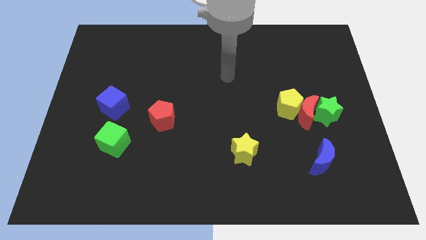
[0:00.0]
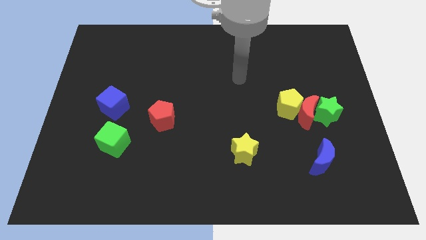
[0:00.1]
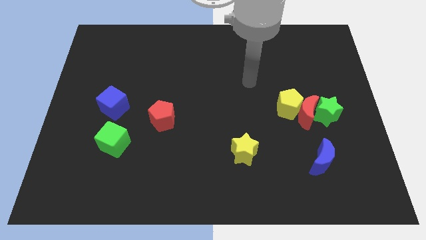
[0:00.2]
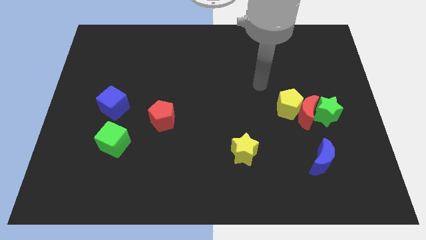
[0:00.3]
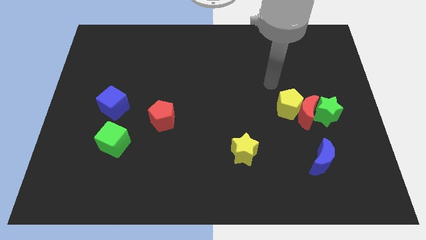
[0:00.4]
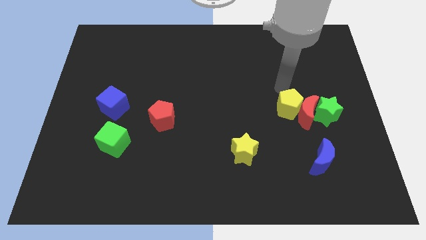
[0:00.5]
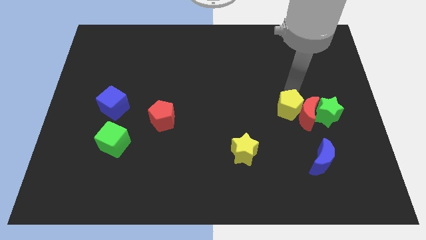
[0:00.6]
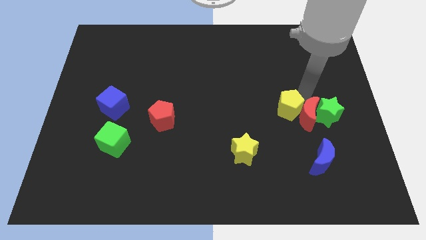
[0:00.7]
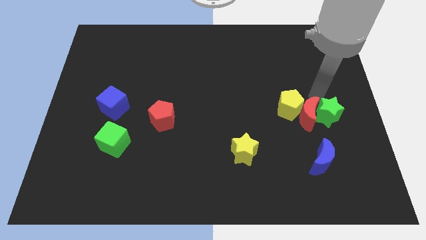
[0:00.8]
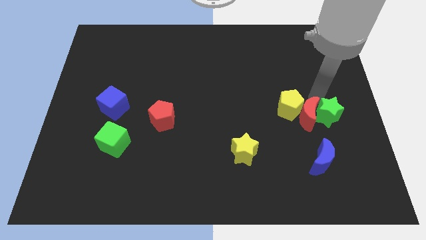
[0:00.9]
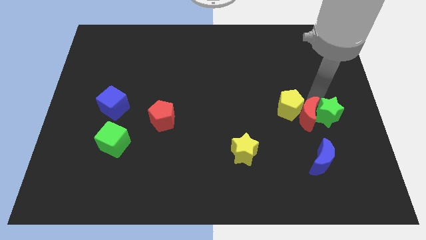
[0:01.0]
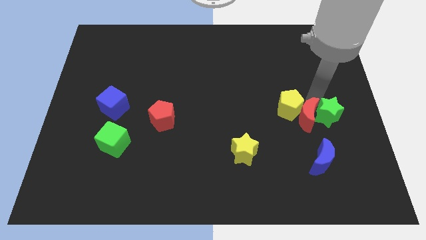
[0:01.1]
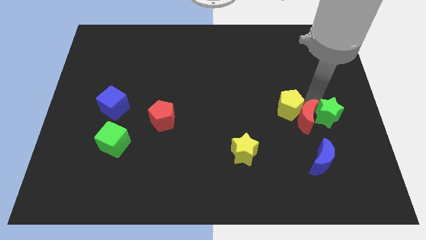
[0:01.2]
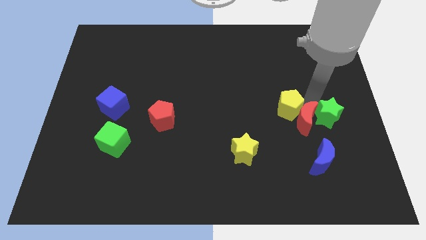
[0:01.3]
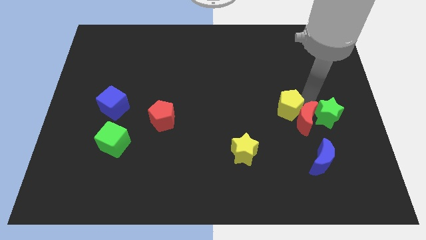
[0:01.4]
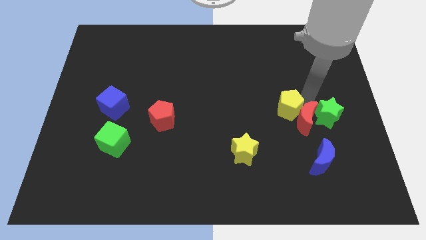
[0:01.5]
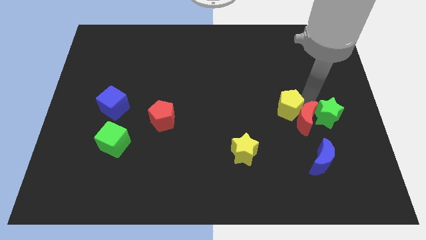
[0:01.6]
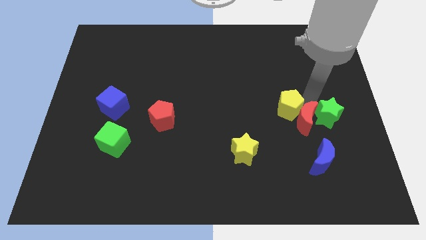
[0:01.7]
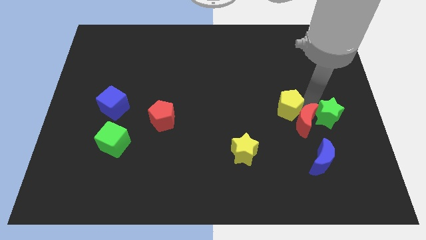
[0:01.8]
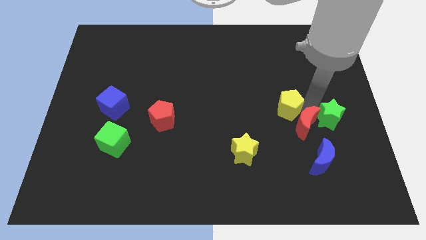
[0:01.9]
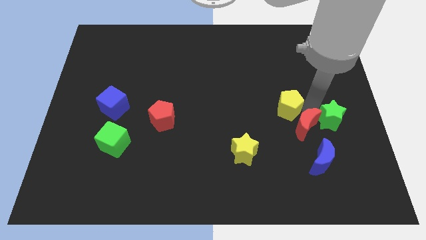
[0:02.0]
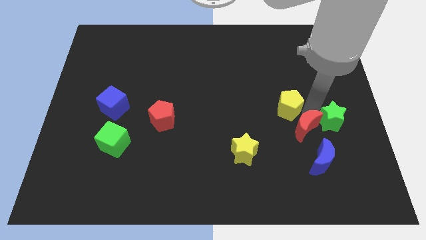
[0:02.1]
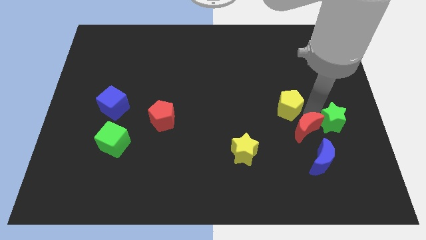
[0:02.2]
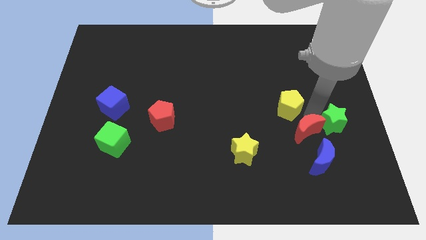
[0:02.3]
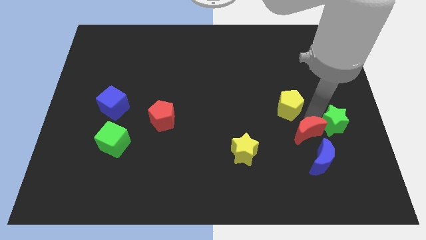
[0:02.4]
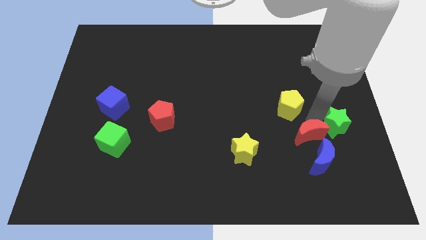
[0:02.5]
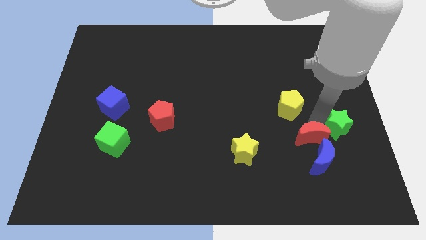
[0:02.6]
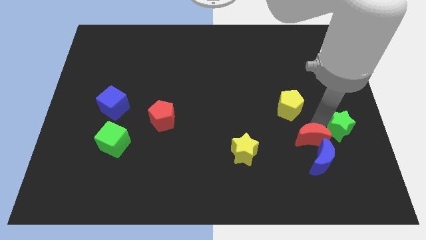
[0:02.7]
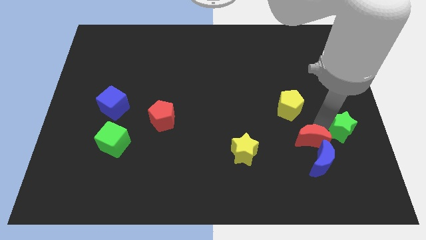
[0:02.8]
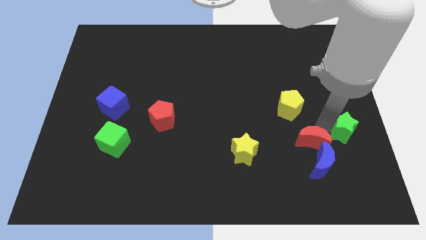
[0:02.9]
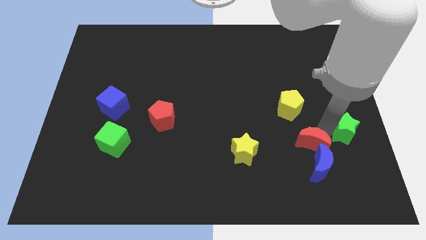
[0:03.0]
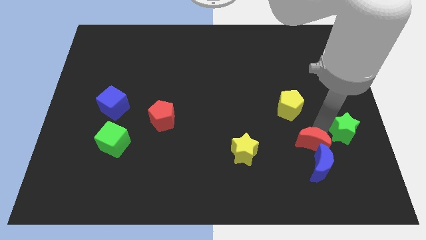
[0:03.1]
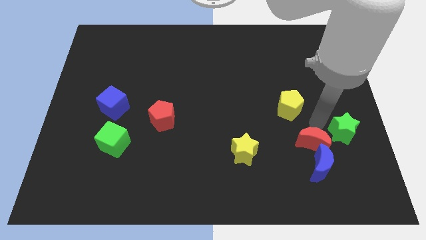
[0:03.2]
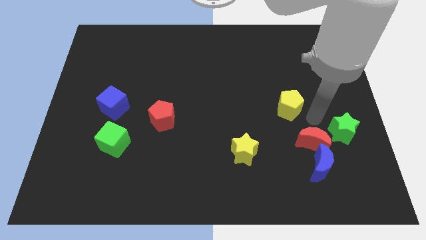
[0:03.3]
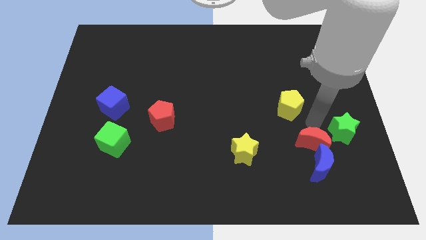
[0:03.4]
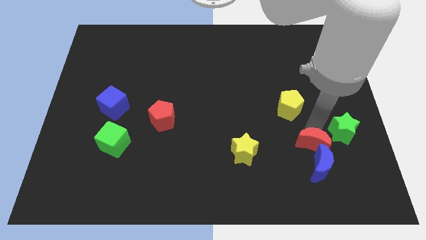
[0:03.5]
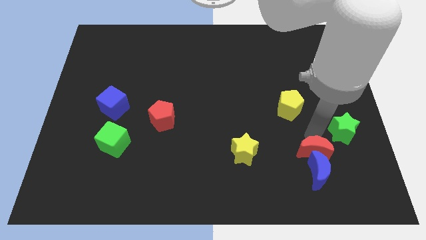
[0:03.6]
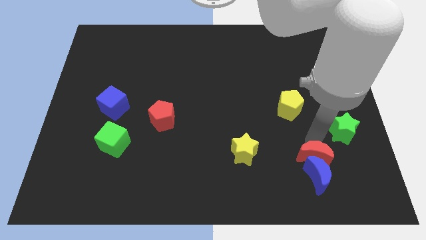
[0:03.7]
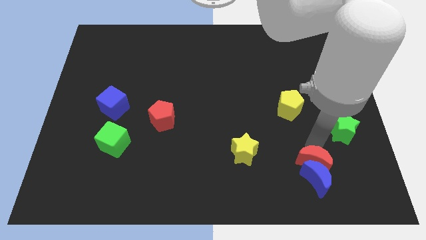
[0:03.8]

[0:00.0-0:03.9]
pull the red moon apart from the yellow pentagon and green star

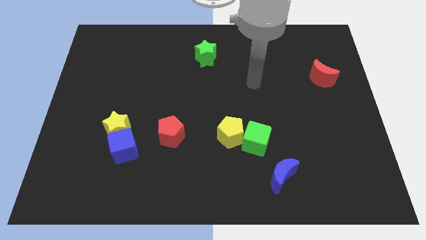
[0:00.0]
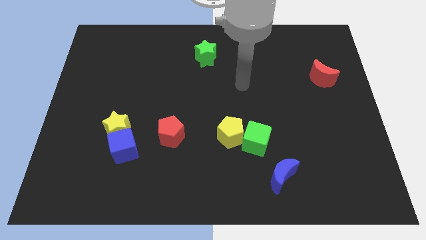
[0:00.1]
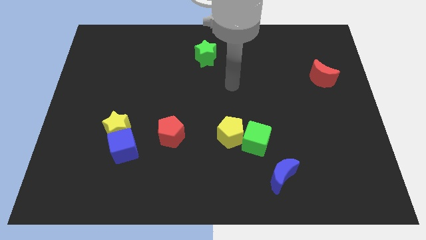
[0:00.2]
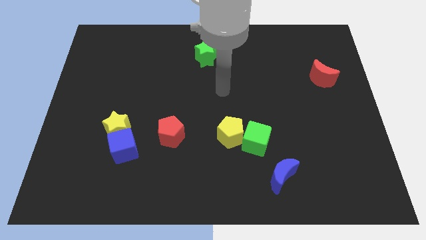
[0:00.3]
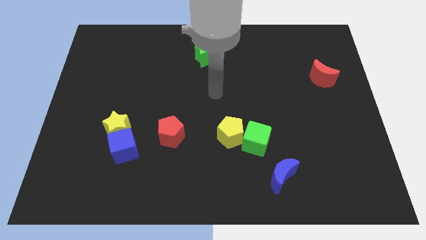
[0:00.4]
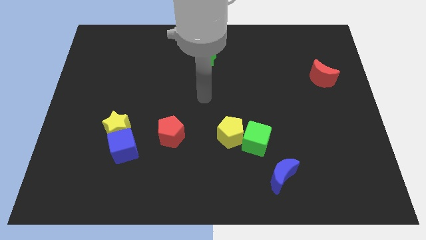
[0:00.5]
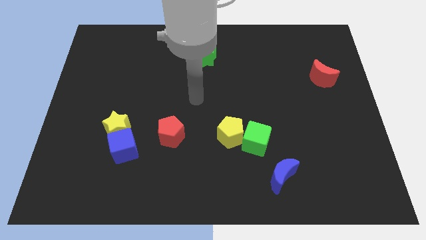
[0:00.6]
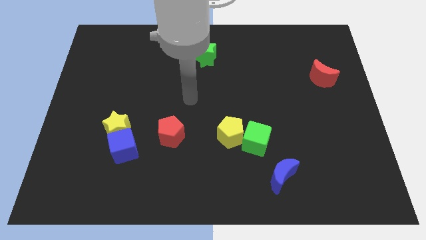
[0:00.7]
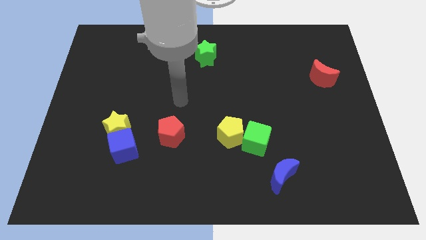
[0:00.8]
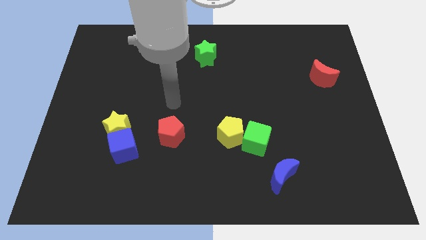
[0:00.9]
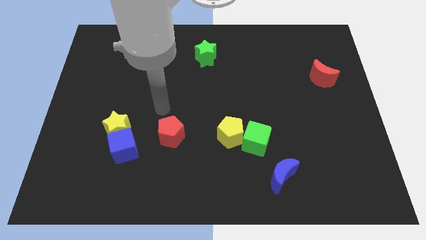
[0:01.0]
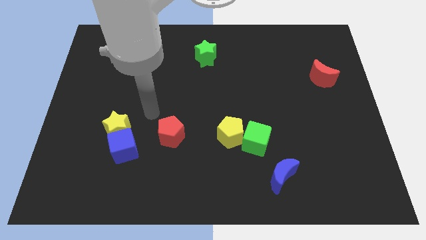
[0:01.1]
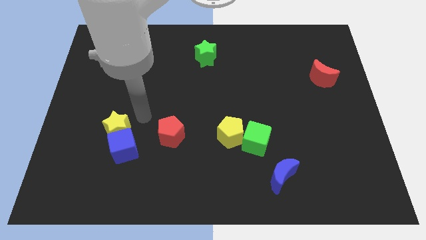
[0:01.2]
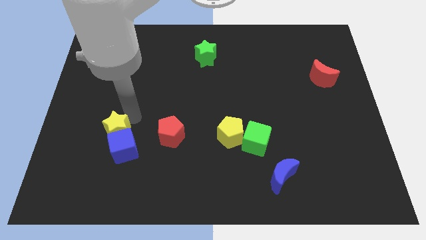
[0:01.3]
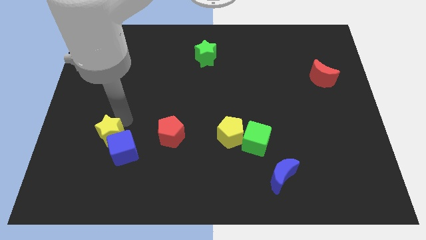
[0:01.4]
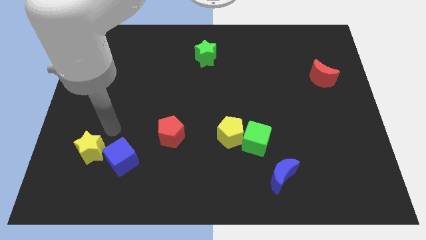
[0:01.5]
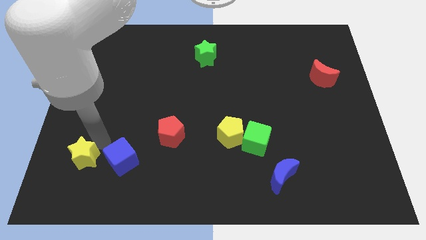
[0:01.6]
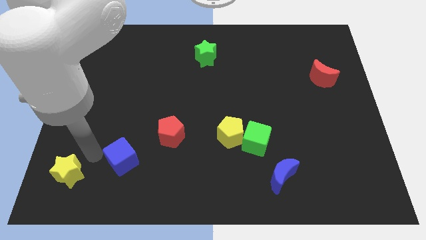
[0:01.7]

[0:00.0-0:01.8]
separate the blue cube from the yellow star

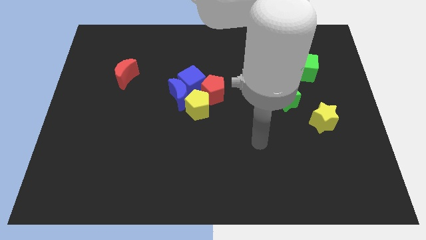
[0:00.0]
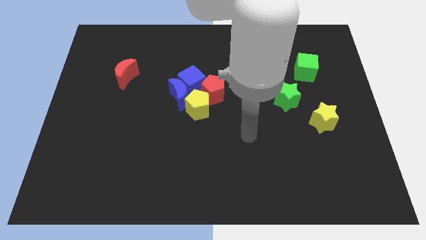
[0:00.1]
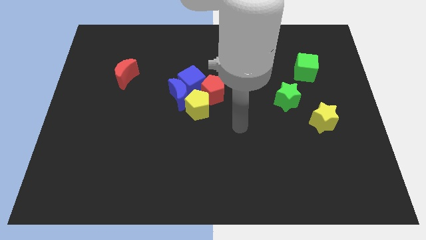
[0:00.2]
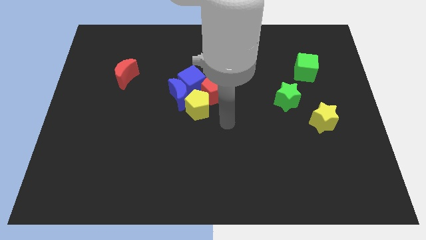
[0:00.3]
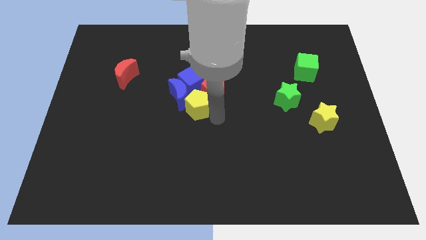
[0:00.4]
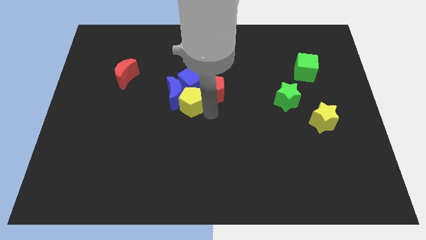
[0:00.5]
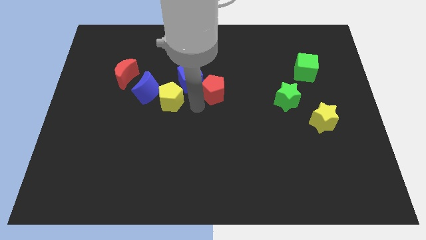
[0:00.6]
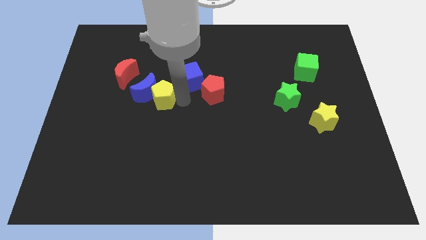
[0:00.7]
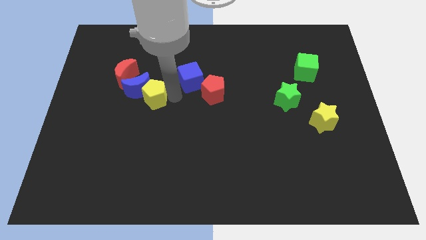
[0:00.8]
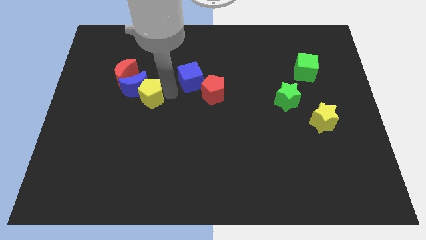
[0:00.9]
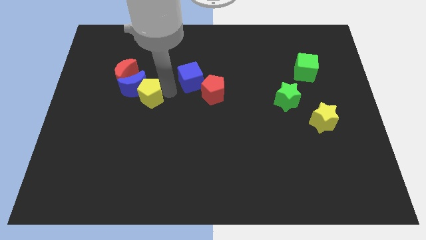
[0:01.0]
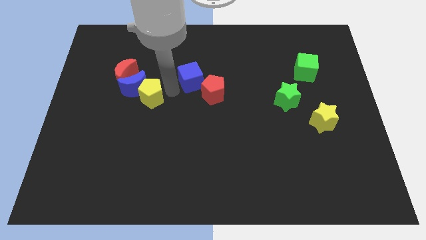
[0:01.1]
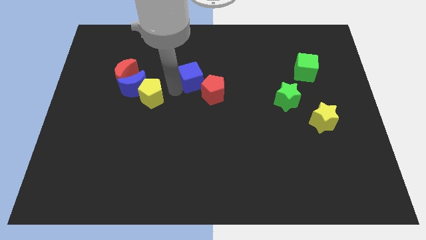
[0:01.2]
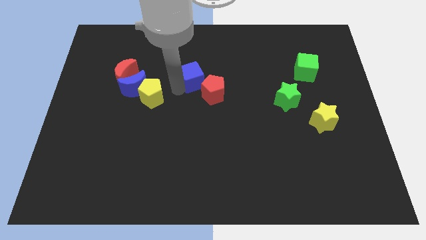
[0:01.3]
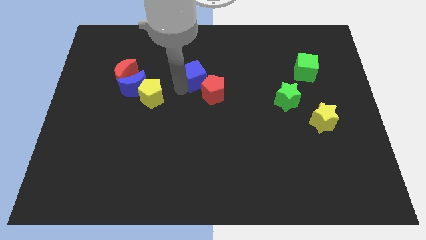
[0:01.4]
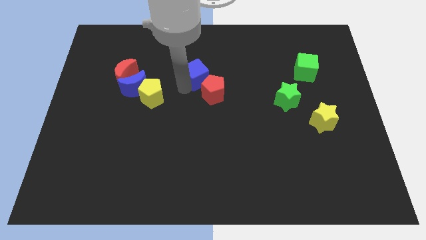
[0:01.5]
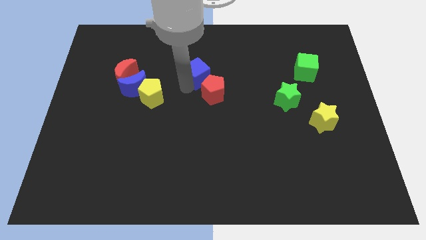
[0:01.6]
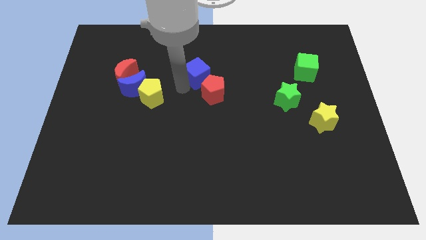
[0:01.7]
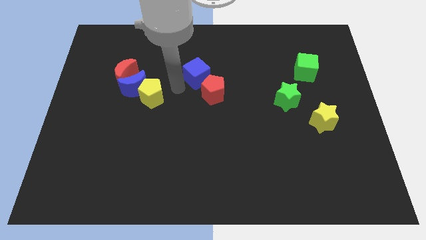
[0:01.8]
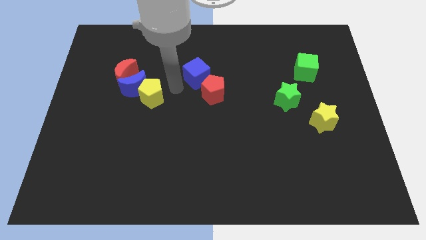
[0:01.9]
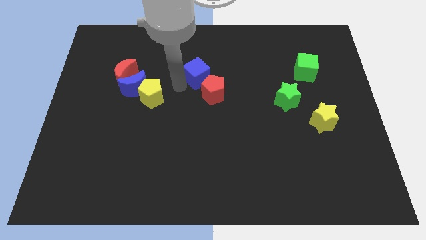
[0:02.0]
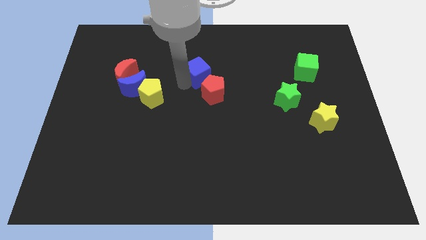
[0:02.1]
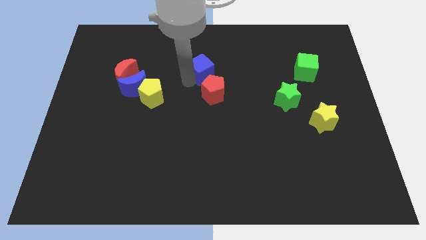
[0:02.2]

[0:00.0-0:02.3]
pull the blue cube apart from the blue moon, red pentagon, and yellow pentagon

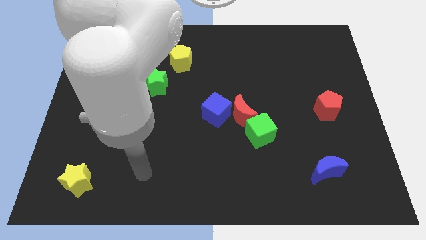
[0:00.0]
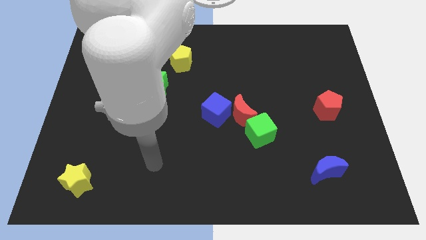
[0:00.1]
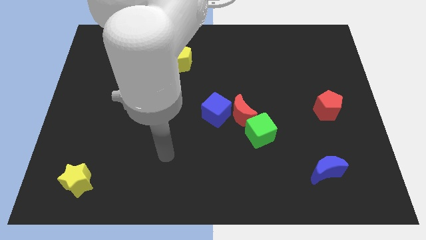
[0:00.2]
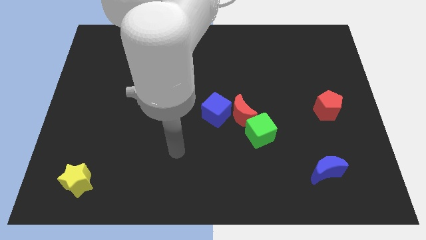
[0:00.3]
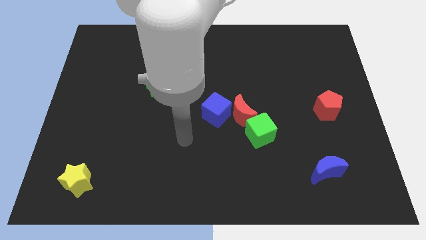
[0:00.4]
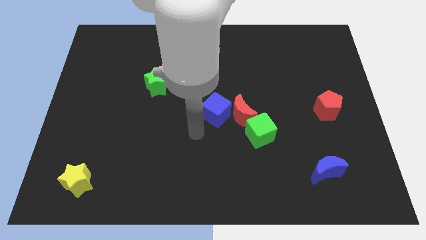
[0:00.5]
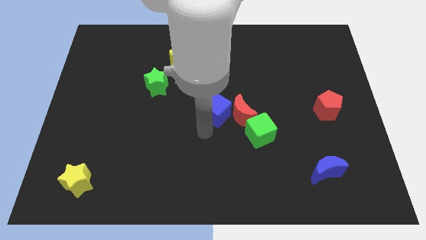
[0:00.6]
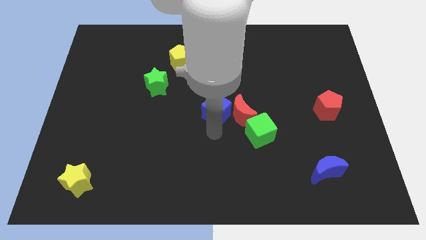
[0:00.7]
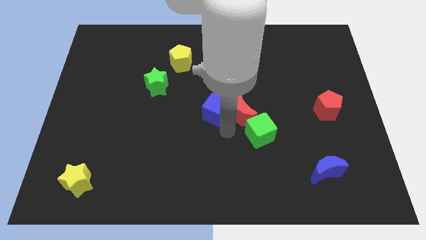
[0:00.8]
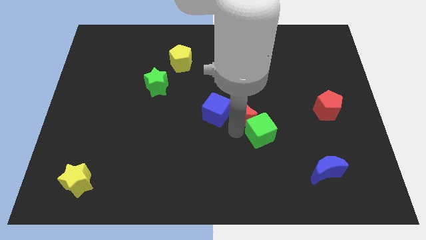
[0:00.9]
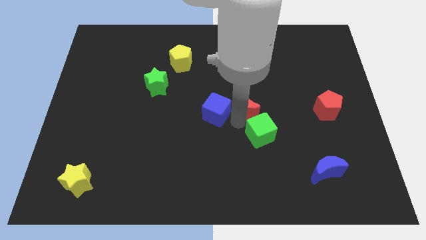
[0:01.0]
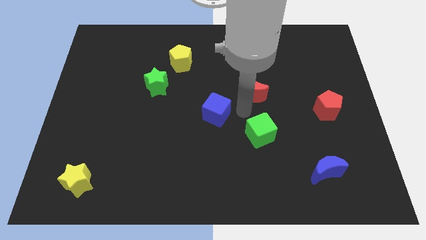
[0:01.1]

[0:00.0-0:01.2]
move the blue cube away from the red moon

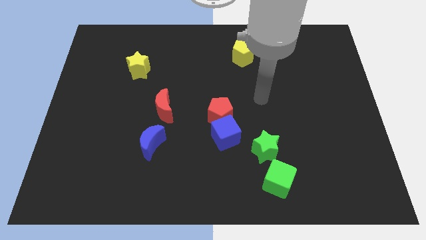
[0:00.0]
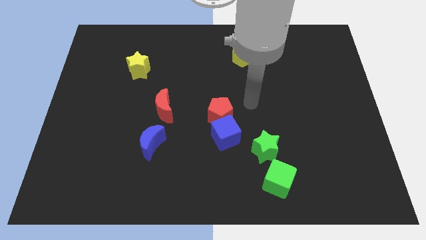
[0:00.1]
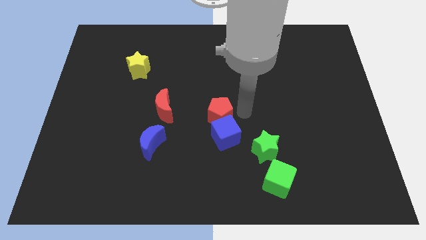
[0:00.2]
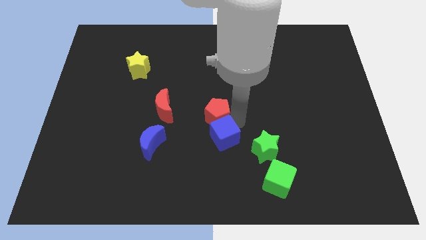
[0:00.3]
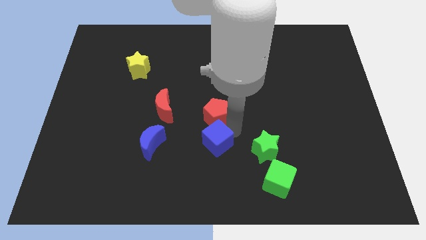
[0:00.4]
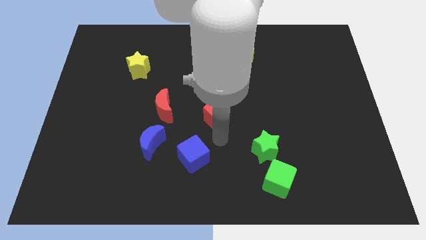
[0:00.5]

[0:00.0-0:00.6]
separate the red pentagon from the blue cube
